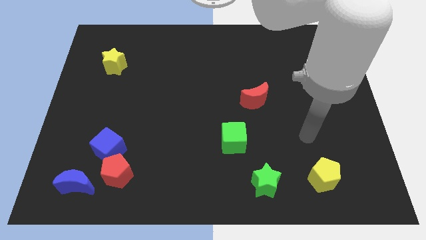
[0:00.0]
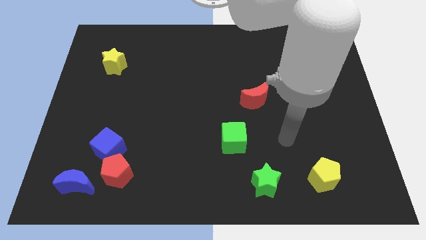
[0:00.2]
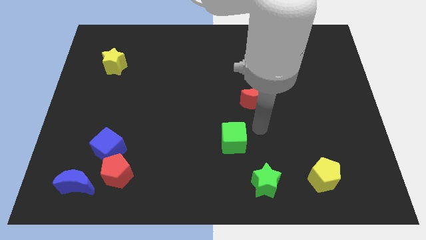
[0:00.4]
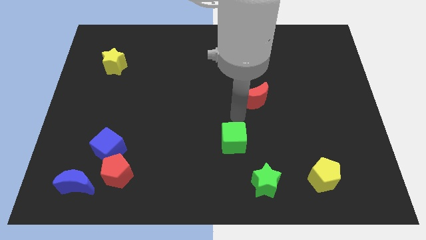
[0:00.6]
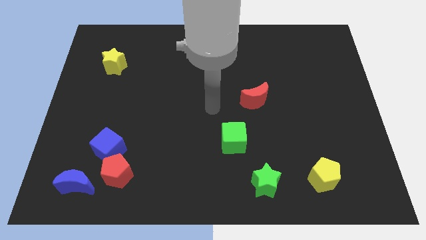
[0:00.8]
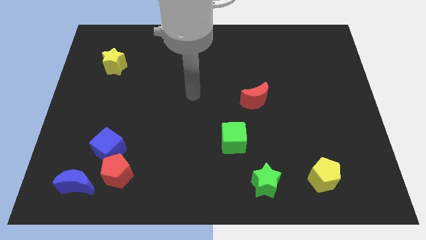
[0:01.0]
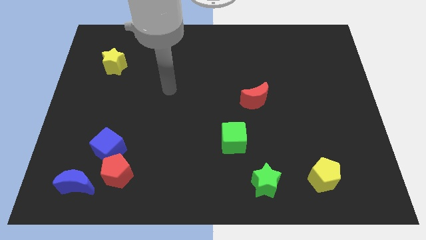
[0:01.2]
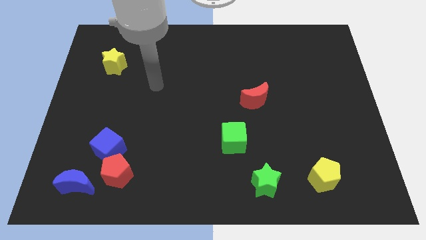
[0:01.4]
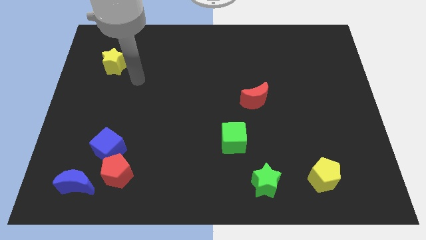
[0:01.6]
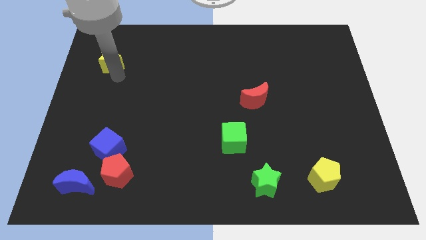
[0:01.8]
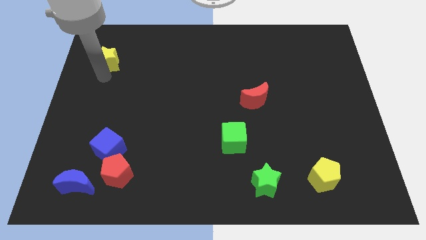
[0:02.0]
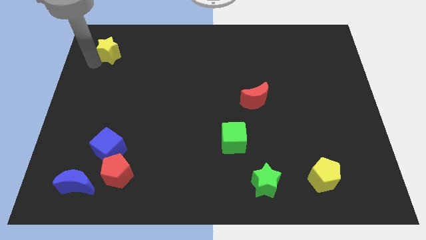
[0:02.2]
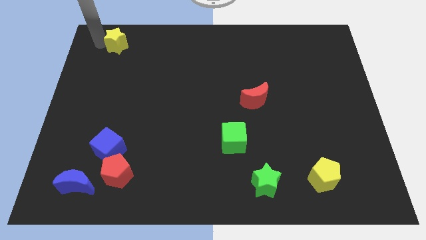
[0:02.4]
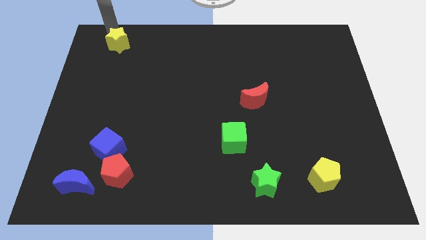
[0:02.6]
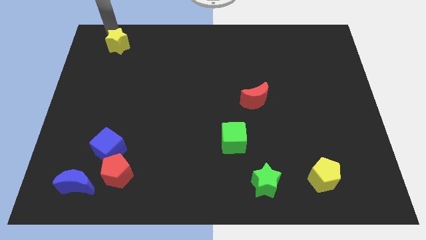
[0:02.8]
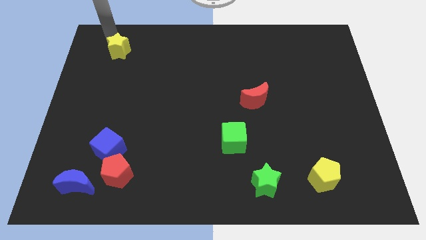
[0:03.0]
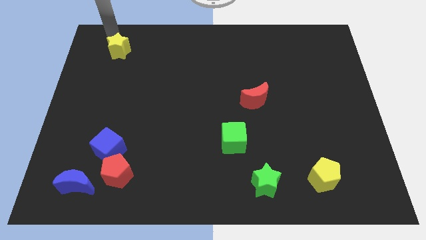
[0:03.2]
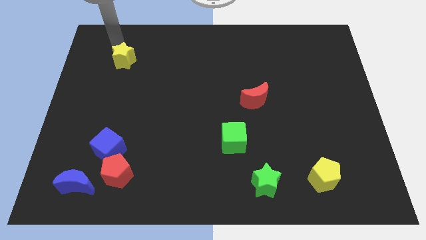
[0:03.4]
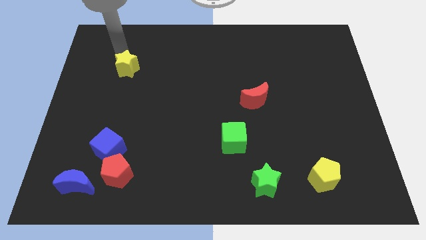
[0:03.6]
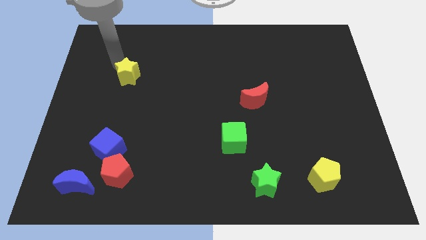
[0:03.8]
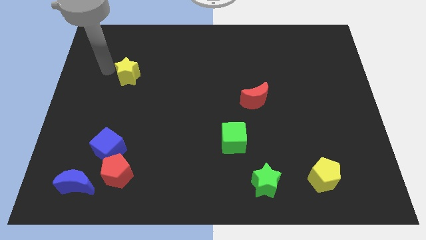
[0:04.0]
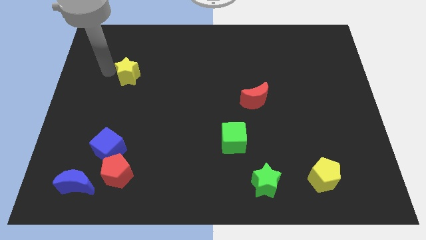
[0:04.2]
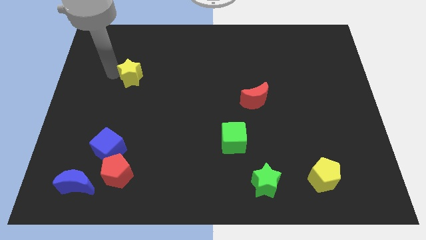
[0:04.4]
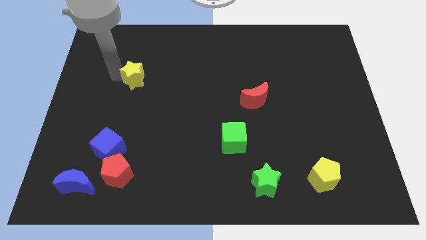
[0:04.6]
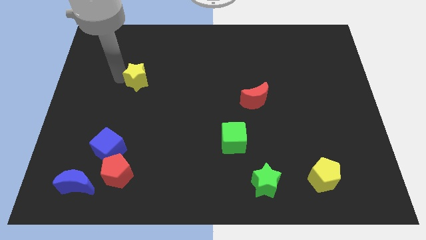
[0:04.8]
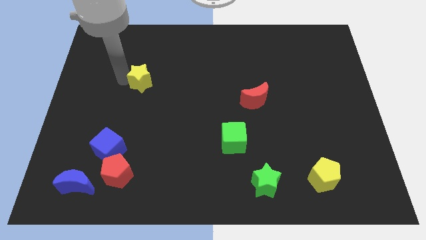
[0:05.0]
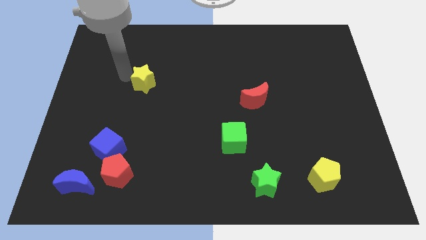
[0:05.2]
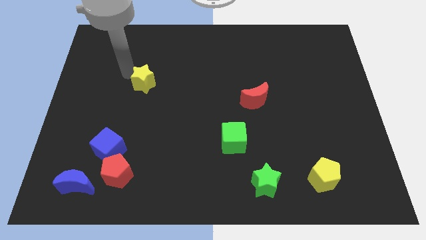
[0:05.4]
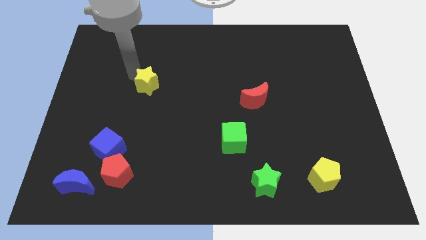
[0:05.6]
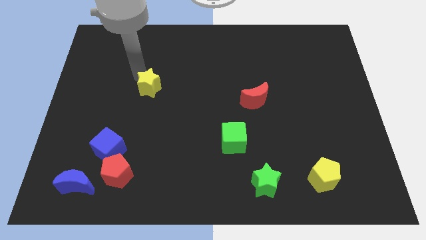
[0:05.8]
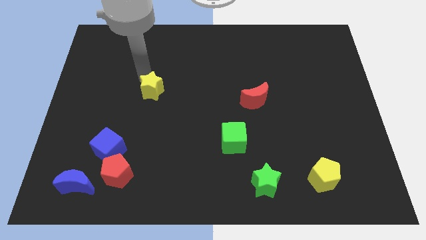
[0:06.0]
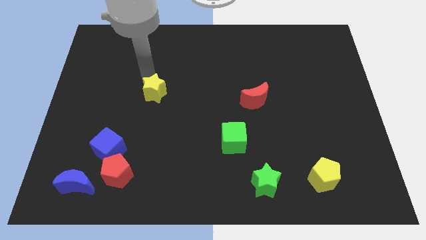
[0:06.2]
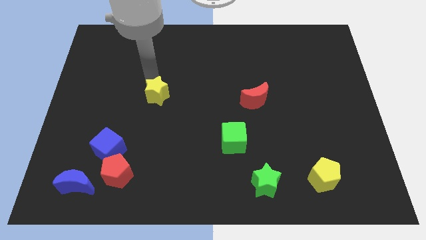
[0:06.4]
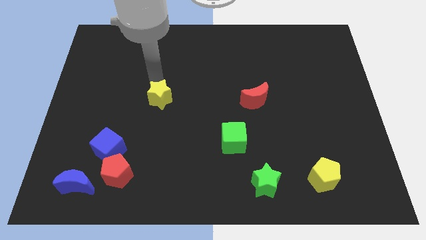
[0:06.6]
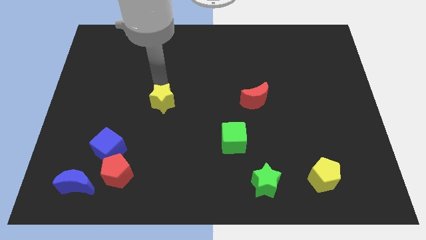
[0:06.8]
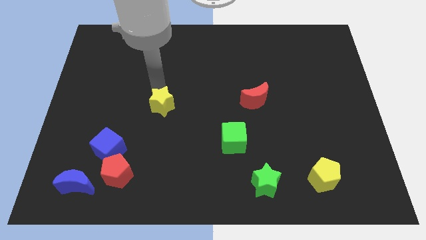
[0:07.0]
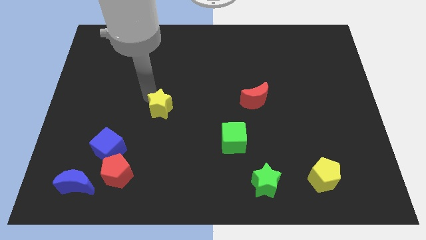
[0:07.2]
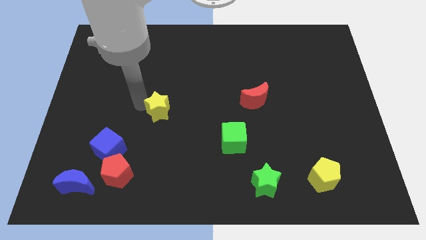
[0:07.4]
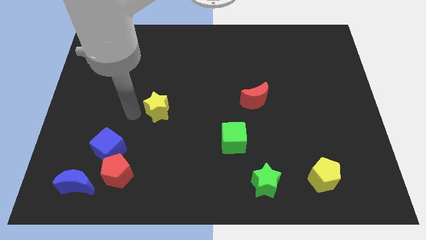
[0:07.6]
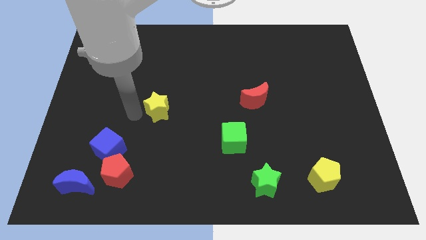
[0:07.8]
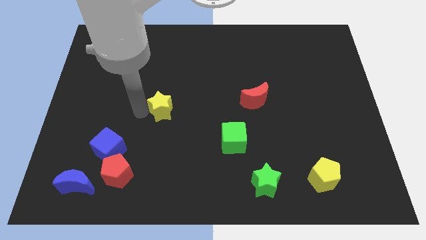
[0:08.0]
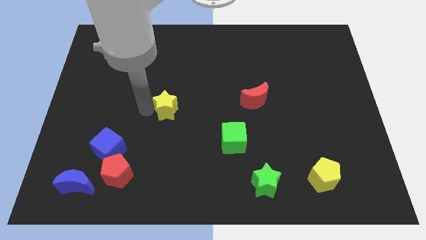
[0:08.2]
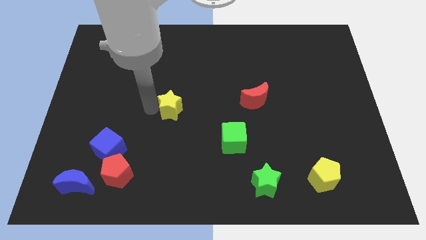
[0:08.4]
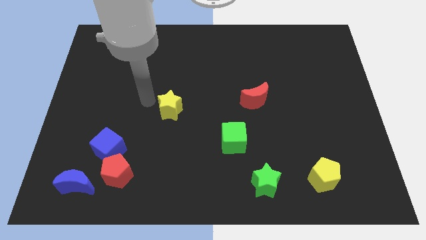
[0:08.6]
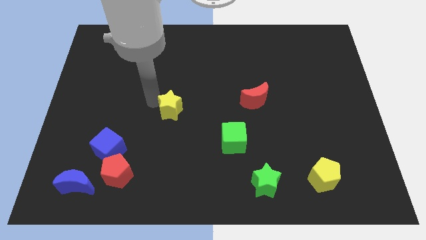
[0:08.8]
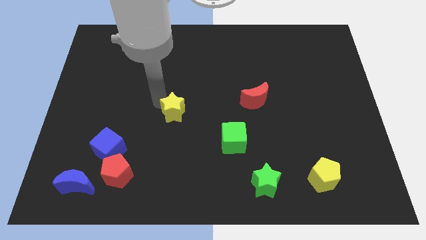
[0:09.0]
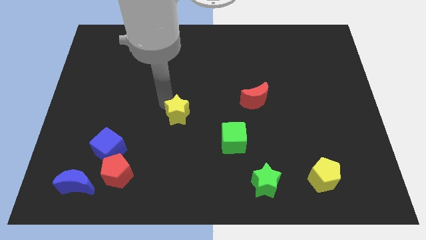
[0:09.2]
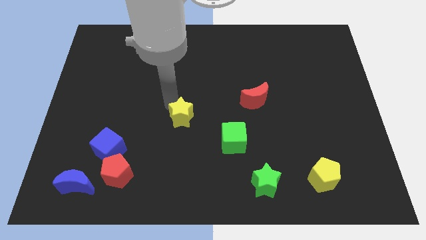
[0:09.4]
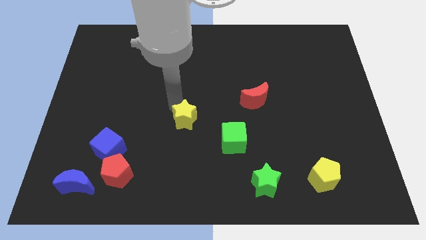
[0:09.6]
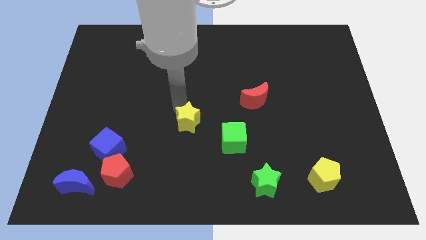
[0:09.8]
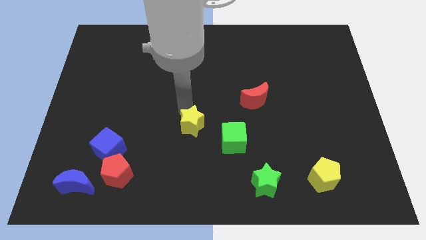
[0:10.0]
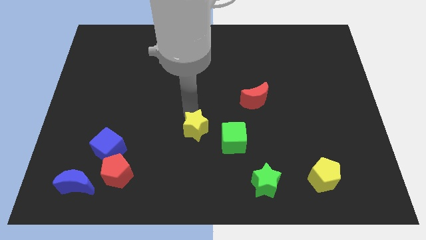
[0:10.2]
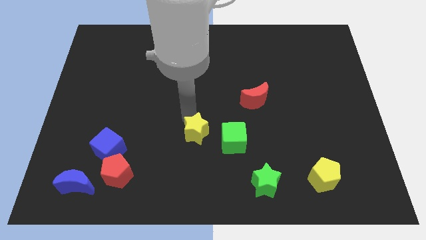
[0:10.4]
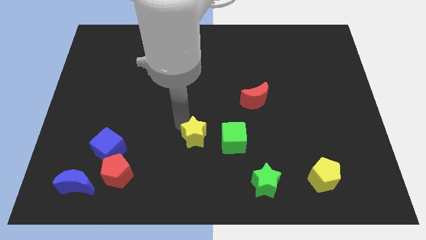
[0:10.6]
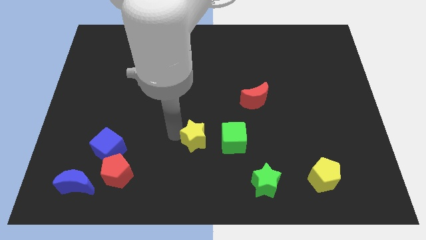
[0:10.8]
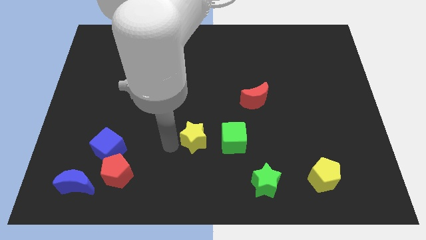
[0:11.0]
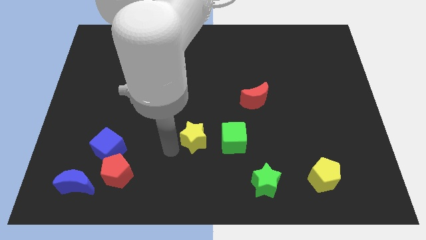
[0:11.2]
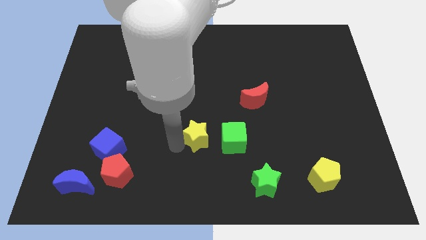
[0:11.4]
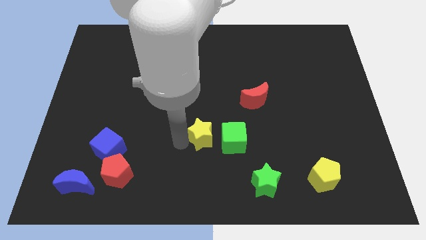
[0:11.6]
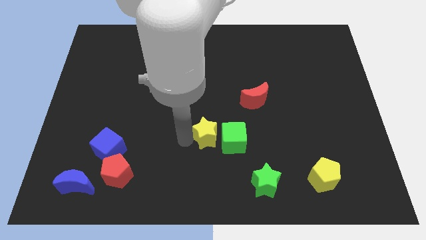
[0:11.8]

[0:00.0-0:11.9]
slide the yellow star towards the green cube

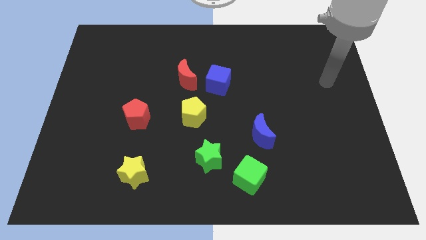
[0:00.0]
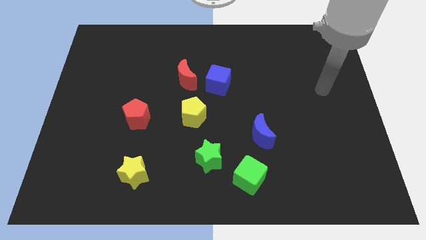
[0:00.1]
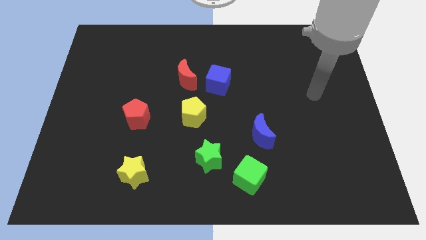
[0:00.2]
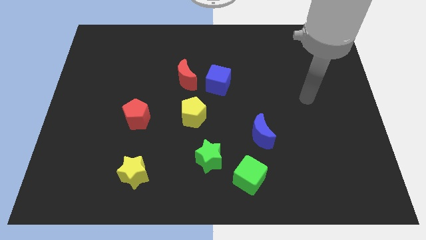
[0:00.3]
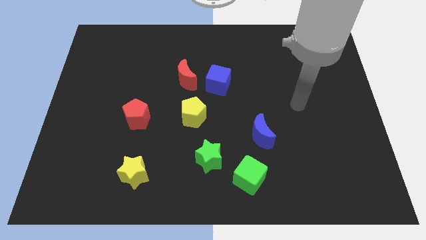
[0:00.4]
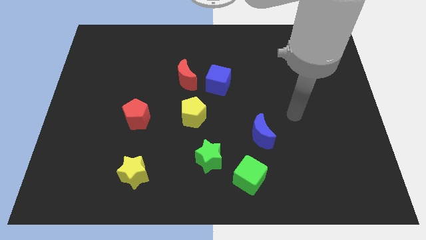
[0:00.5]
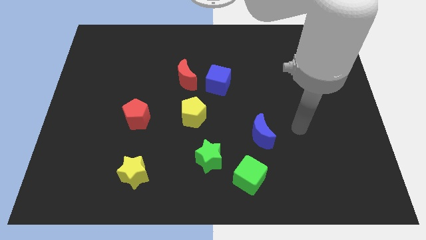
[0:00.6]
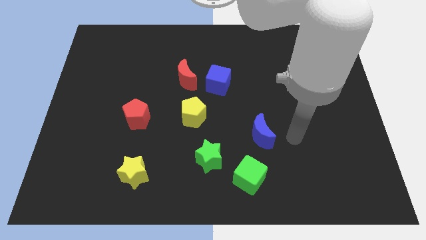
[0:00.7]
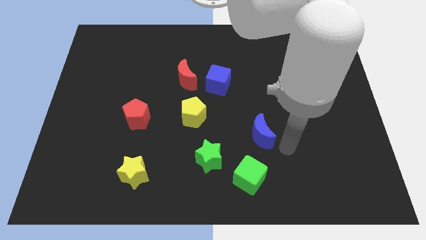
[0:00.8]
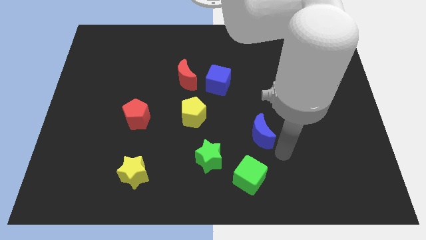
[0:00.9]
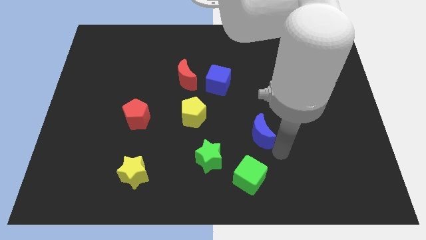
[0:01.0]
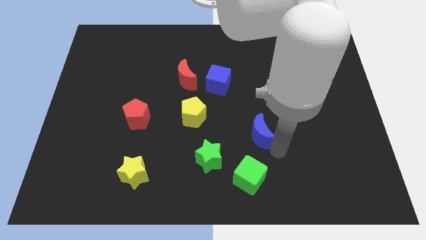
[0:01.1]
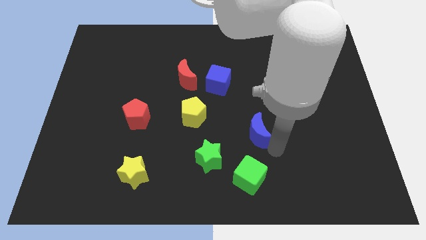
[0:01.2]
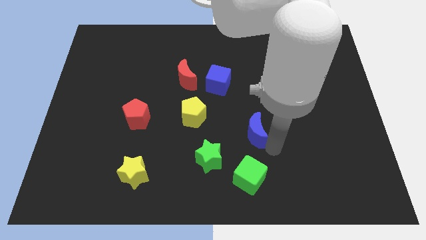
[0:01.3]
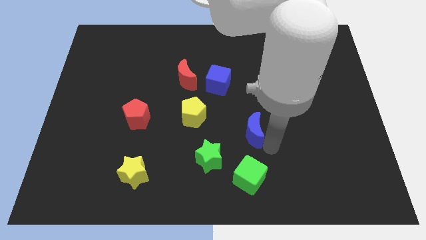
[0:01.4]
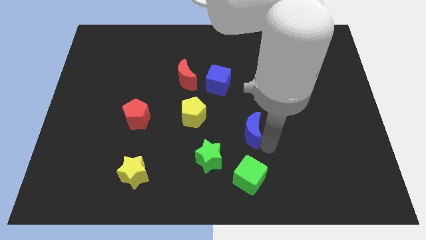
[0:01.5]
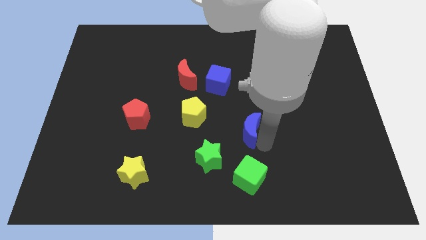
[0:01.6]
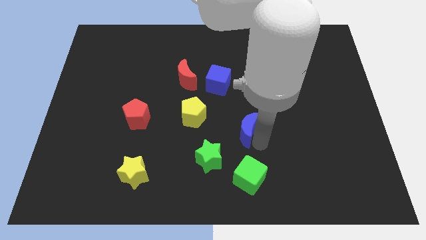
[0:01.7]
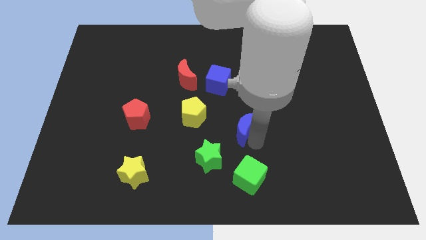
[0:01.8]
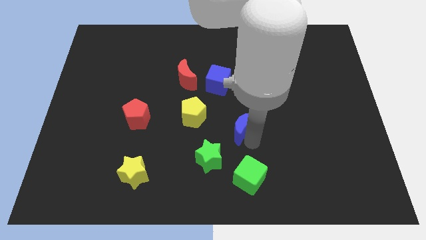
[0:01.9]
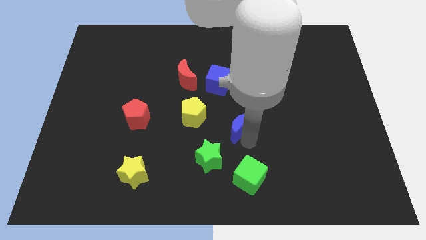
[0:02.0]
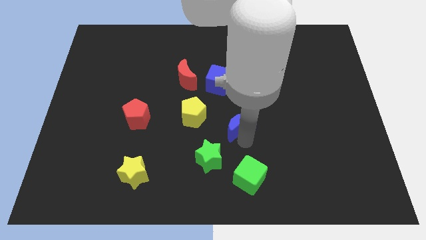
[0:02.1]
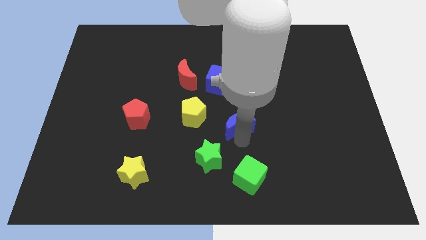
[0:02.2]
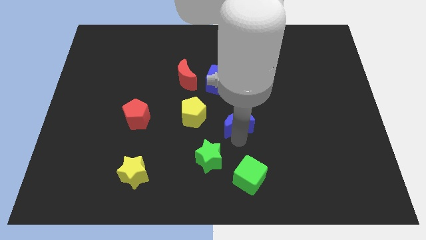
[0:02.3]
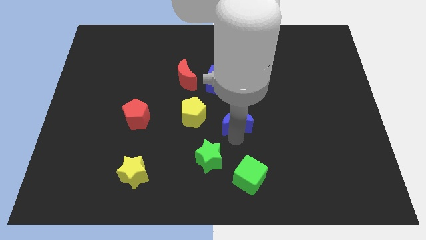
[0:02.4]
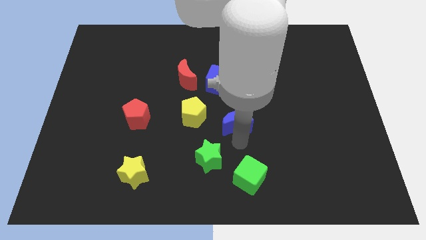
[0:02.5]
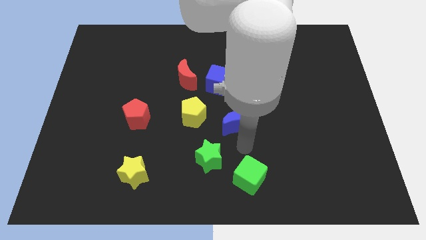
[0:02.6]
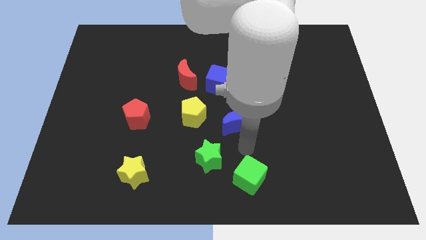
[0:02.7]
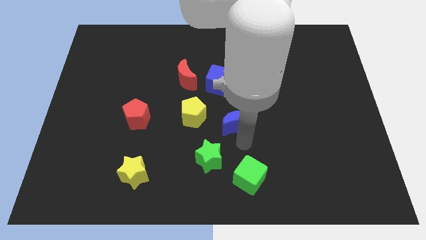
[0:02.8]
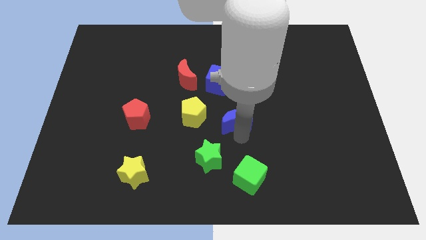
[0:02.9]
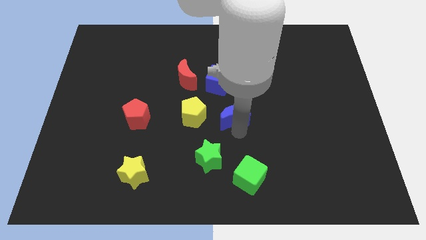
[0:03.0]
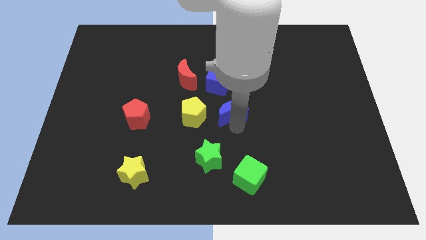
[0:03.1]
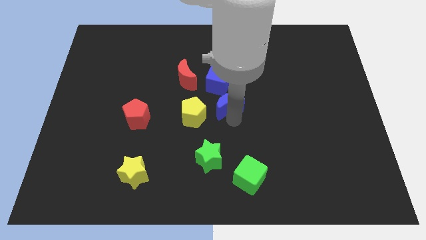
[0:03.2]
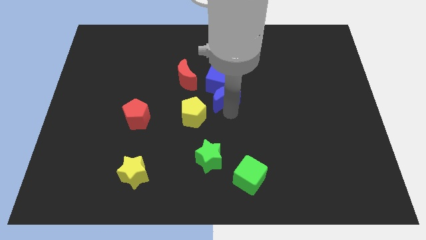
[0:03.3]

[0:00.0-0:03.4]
slide the blue moon close to the blue cube
